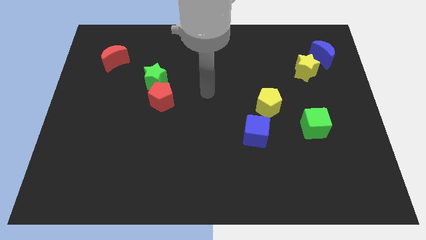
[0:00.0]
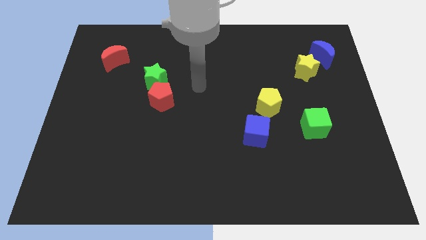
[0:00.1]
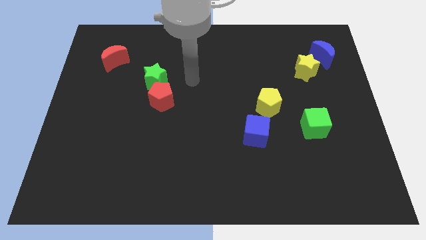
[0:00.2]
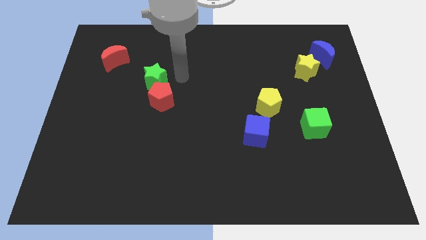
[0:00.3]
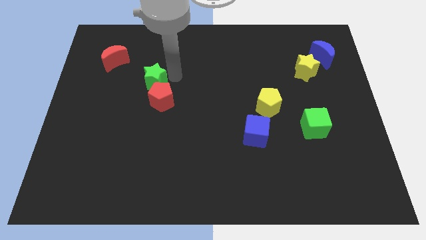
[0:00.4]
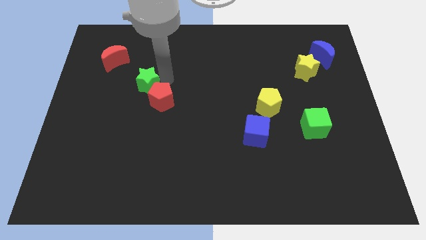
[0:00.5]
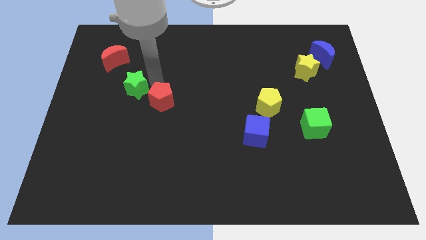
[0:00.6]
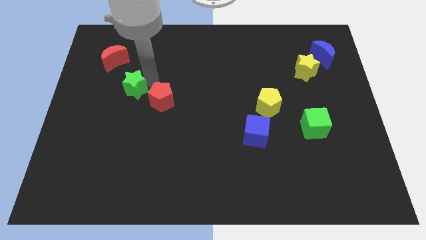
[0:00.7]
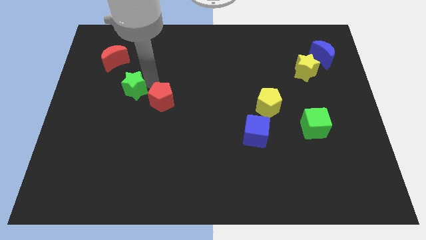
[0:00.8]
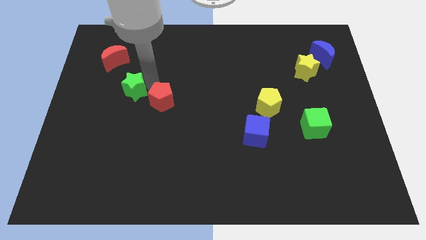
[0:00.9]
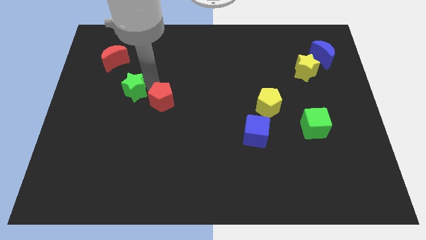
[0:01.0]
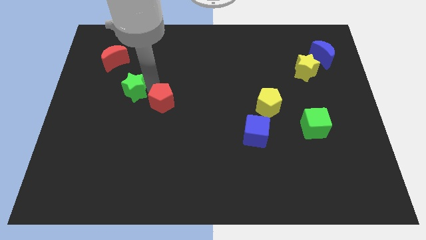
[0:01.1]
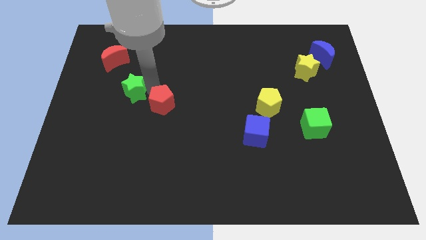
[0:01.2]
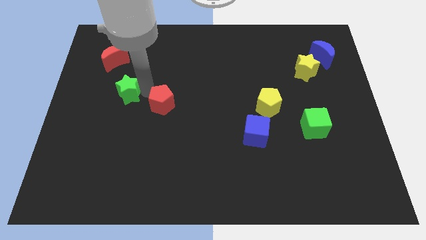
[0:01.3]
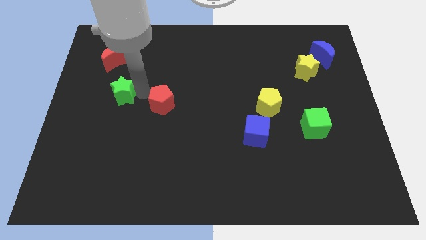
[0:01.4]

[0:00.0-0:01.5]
separate the red pentagon from the green star

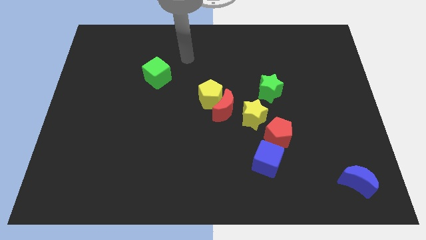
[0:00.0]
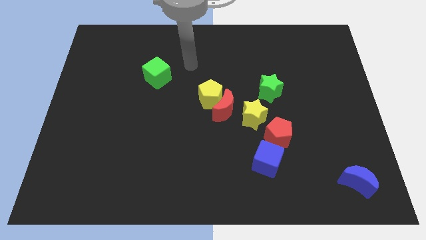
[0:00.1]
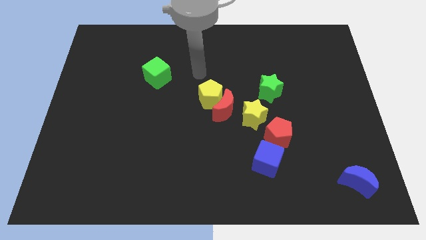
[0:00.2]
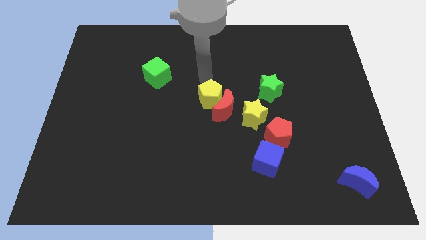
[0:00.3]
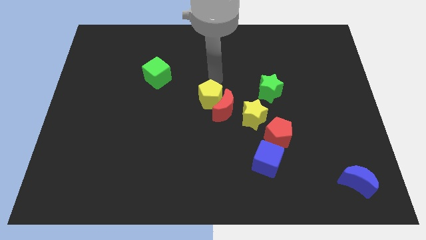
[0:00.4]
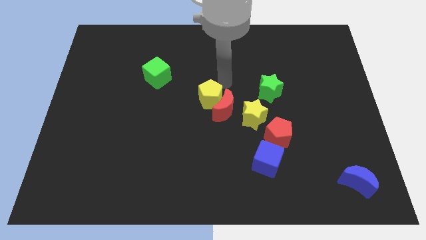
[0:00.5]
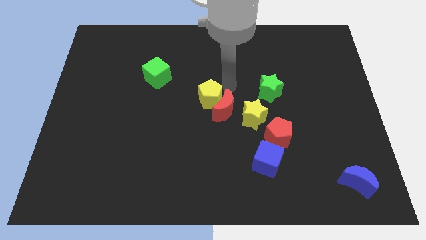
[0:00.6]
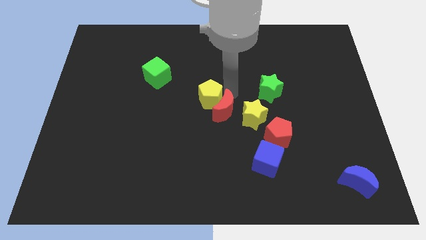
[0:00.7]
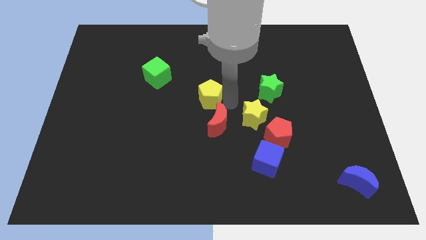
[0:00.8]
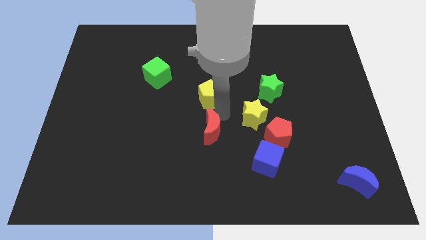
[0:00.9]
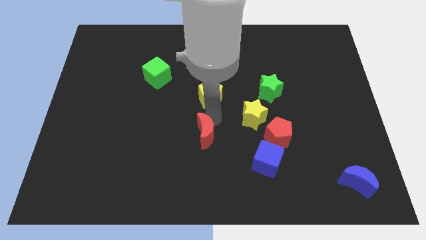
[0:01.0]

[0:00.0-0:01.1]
separate the yellow pentagon from the red moon

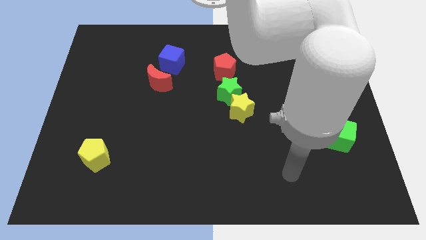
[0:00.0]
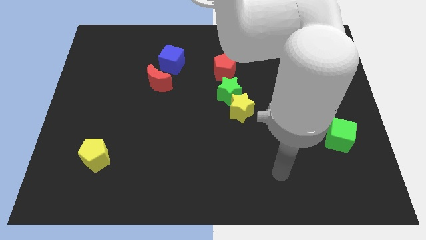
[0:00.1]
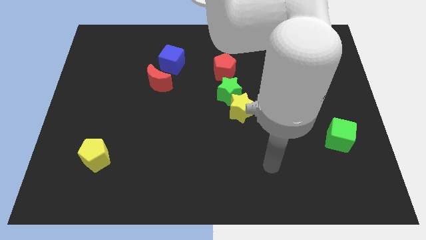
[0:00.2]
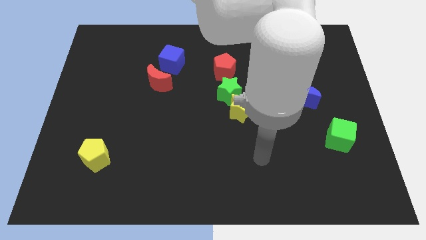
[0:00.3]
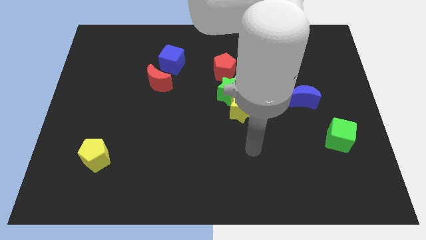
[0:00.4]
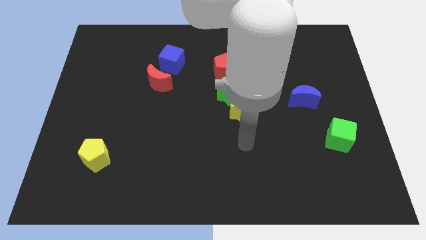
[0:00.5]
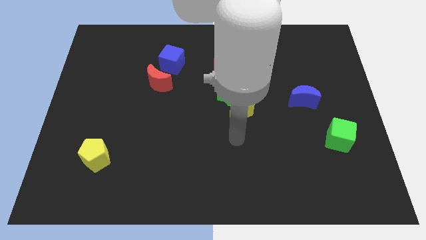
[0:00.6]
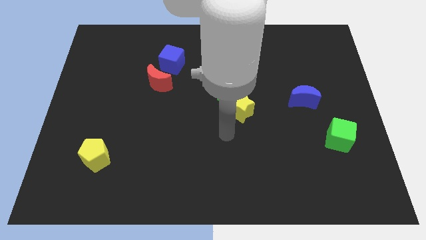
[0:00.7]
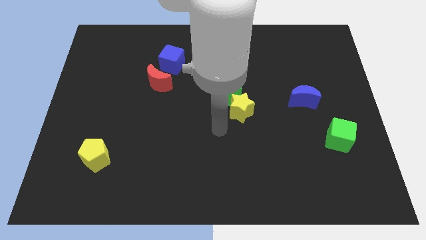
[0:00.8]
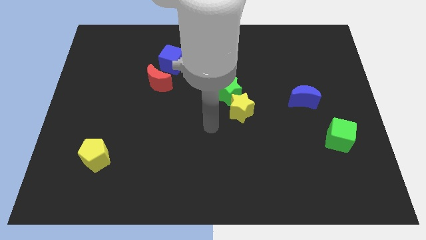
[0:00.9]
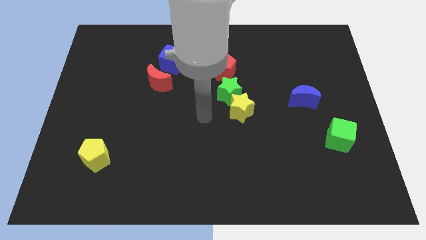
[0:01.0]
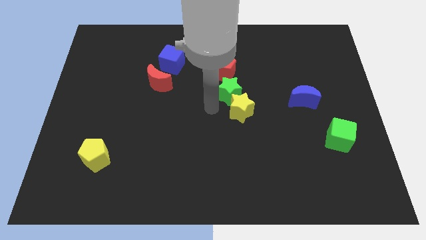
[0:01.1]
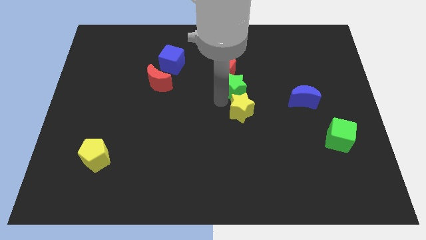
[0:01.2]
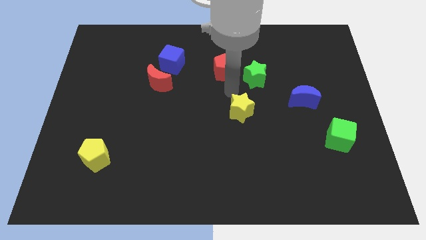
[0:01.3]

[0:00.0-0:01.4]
separate the yellow star from the green star

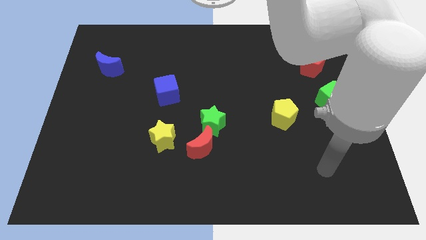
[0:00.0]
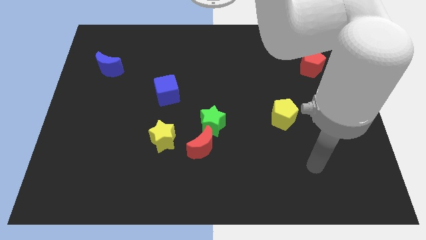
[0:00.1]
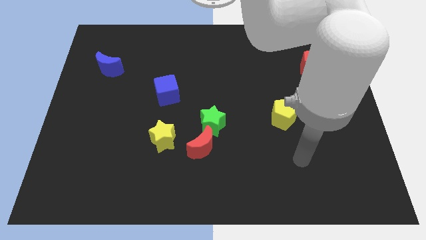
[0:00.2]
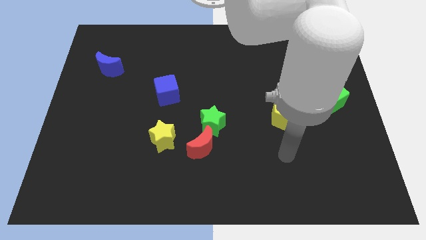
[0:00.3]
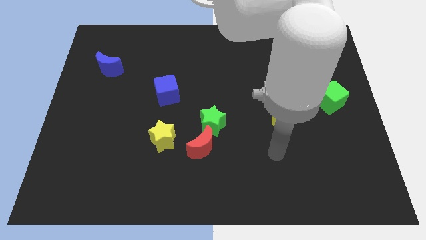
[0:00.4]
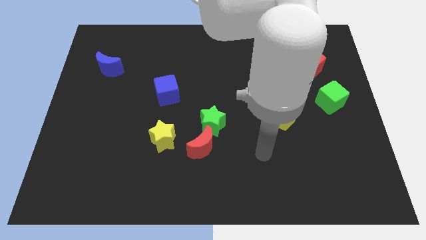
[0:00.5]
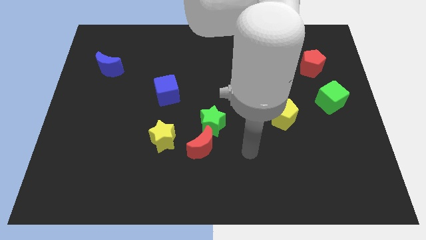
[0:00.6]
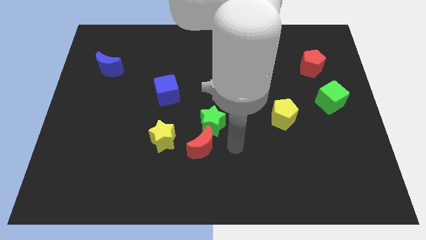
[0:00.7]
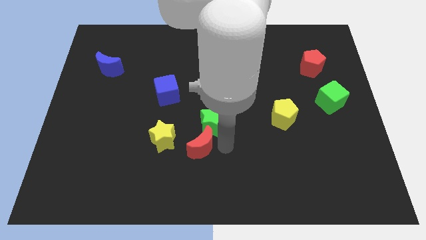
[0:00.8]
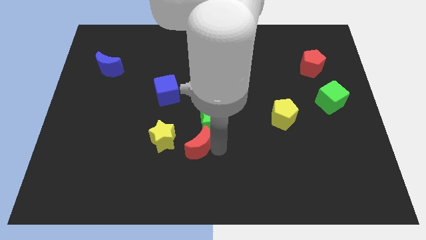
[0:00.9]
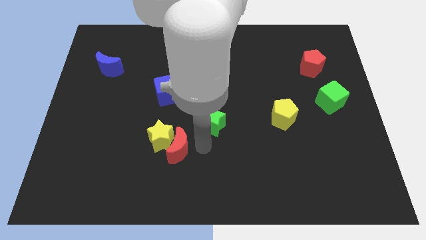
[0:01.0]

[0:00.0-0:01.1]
pull the green star apart from the red moon

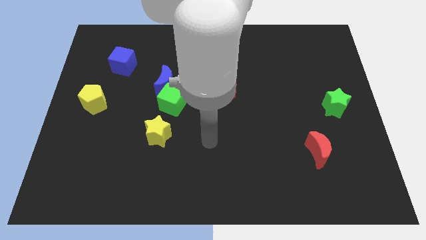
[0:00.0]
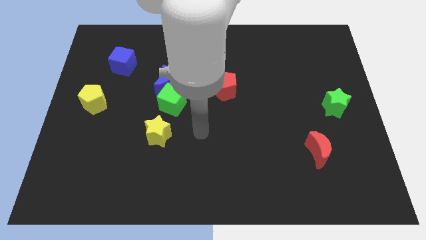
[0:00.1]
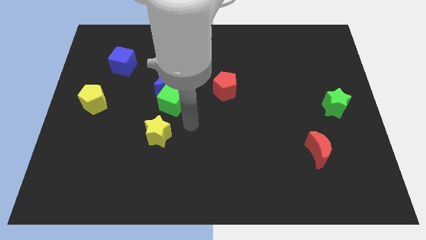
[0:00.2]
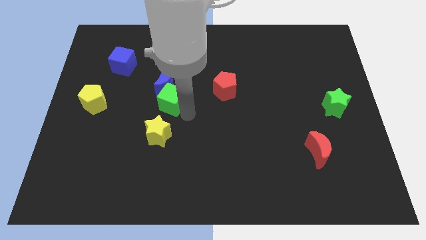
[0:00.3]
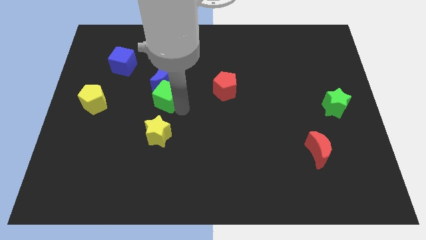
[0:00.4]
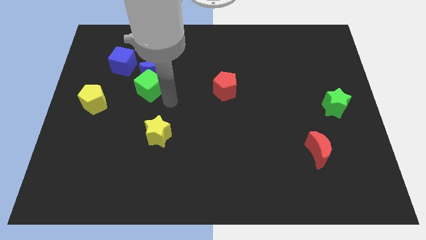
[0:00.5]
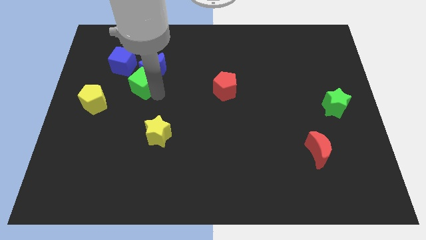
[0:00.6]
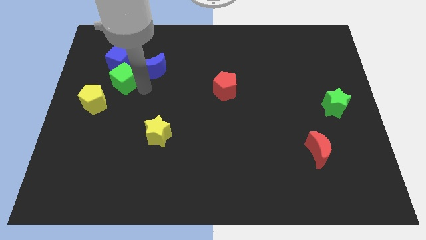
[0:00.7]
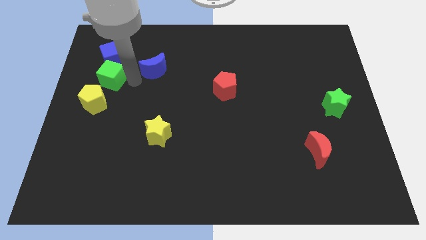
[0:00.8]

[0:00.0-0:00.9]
separate the blue moon from the green cube

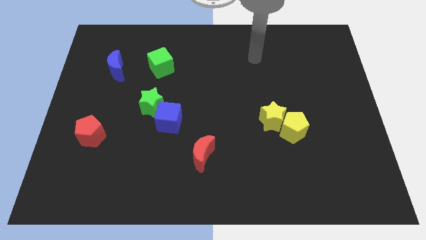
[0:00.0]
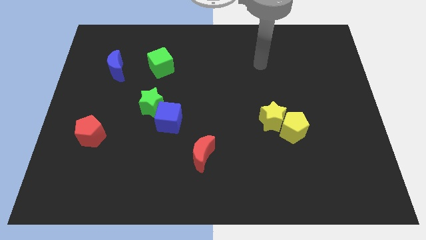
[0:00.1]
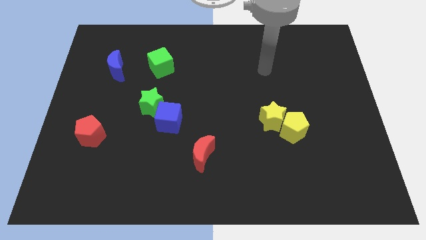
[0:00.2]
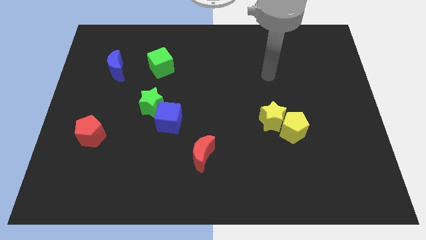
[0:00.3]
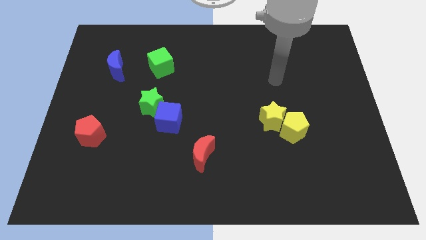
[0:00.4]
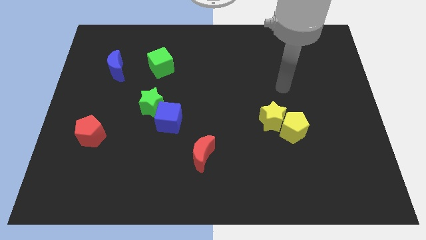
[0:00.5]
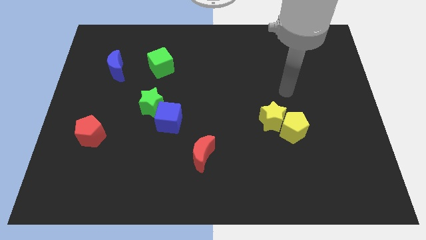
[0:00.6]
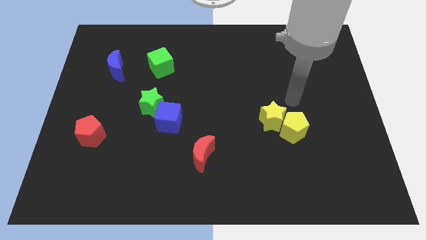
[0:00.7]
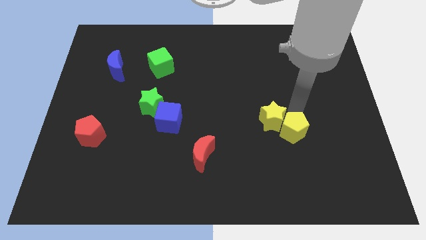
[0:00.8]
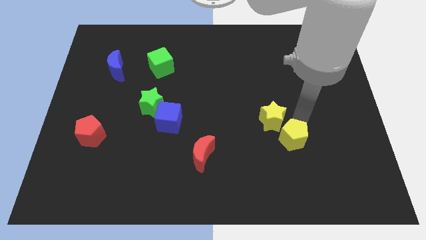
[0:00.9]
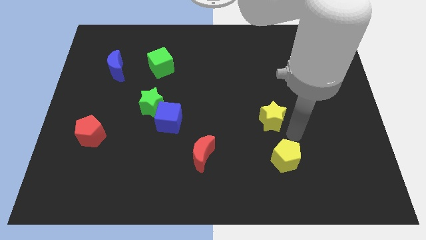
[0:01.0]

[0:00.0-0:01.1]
pull the yellow star apart from the yellow pentagon

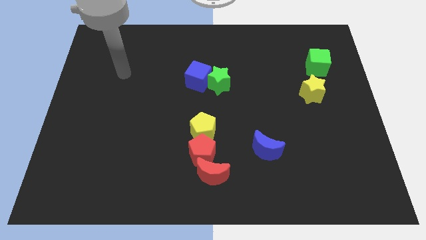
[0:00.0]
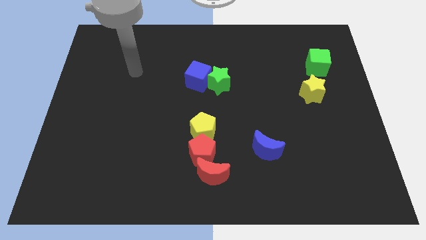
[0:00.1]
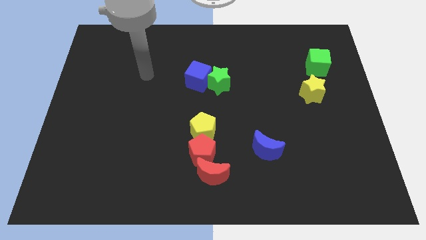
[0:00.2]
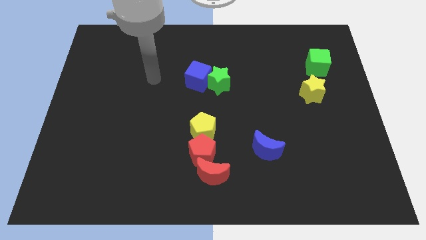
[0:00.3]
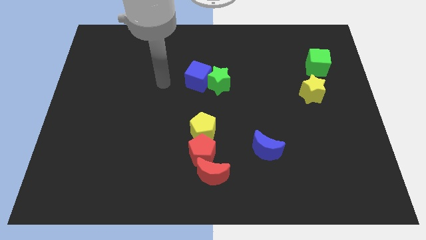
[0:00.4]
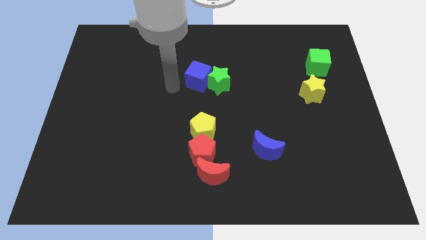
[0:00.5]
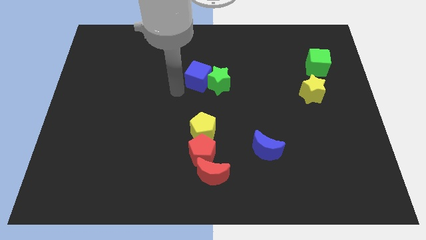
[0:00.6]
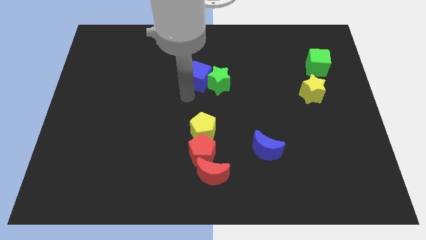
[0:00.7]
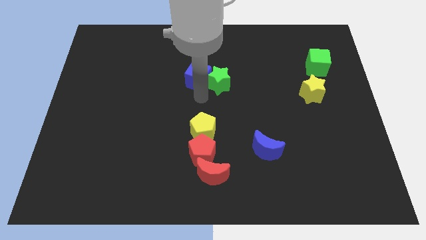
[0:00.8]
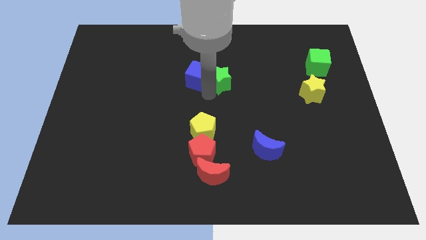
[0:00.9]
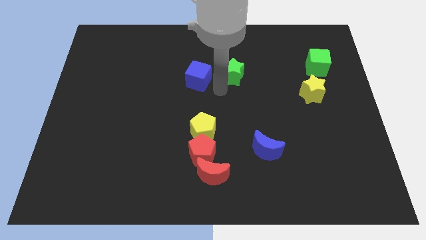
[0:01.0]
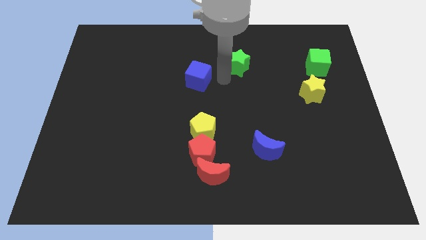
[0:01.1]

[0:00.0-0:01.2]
pull the blue cube apart from the green star

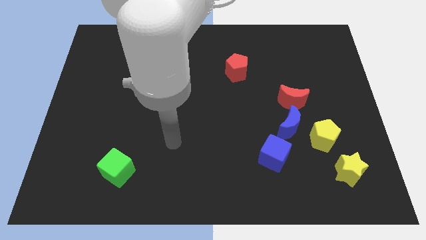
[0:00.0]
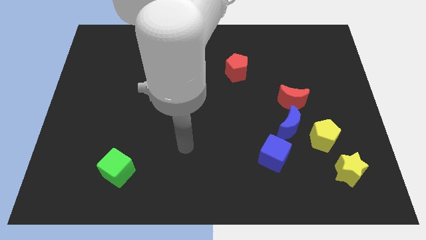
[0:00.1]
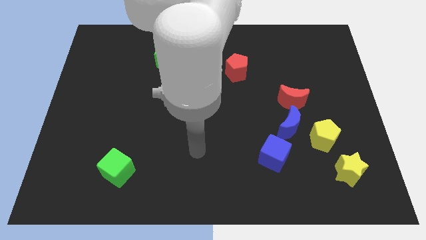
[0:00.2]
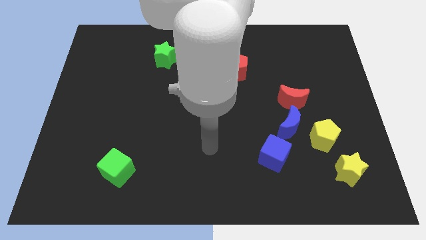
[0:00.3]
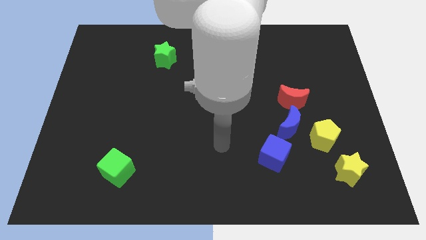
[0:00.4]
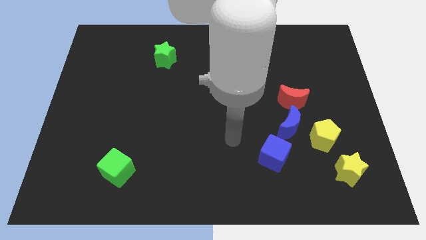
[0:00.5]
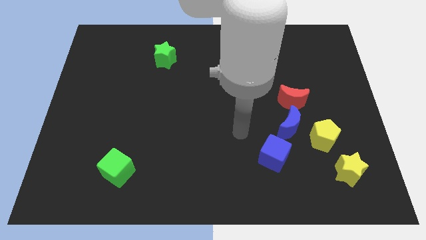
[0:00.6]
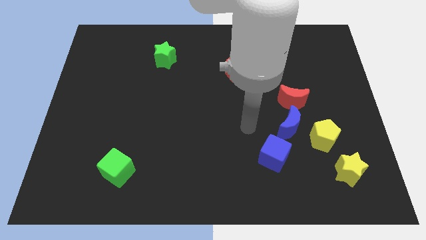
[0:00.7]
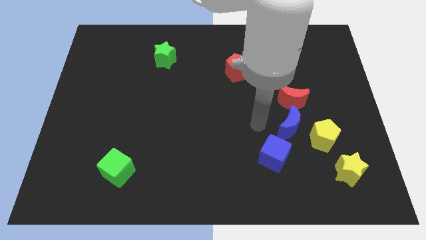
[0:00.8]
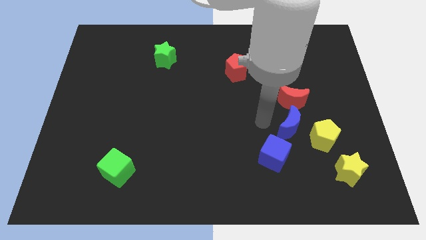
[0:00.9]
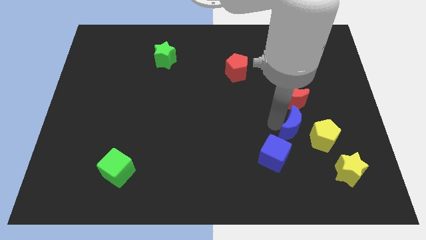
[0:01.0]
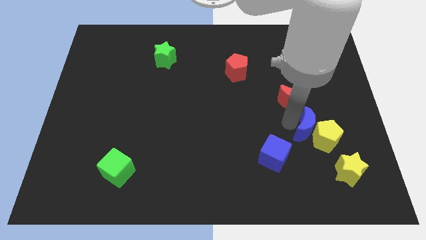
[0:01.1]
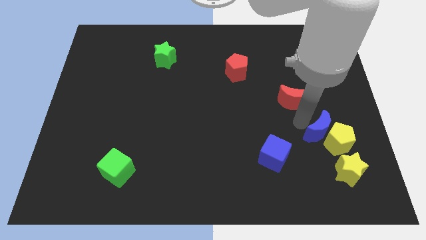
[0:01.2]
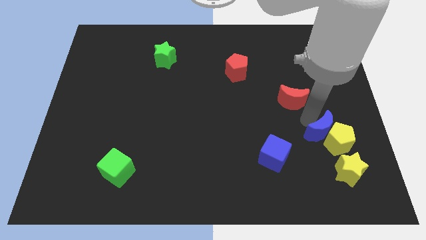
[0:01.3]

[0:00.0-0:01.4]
move the red moon away from the blue moon
